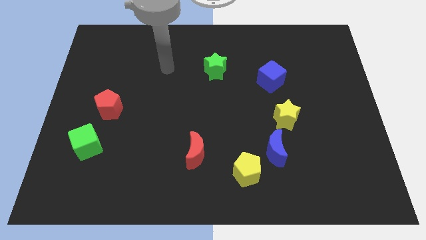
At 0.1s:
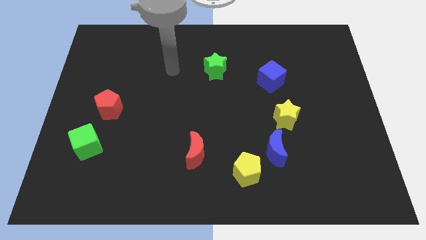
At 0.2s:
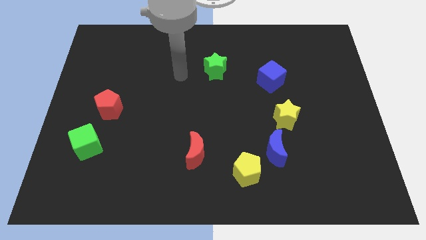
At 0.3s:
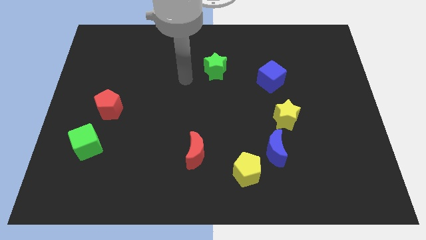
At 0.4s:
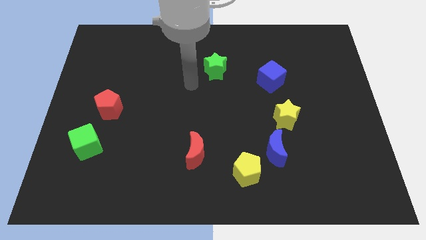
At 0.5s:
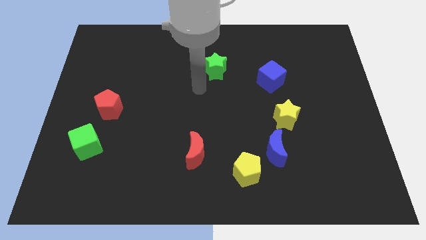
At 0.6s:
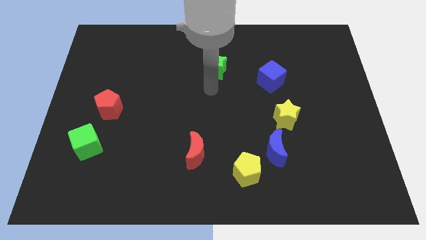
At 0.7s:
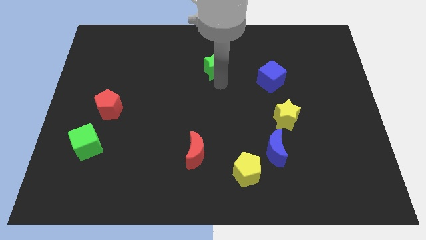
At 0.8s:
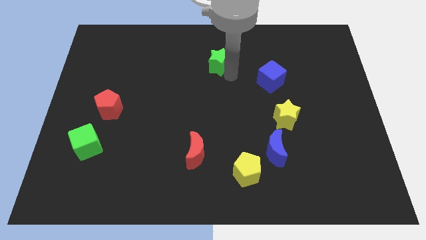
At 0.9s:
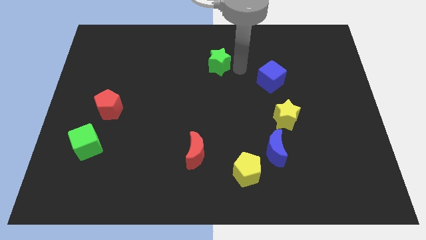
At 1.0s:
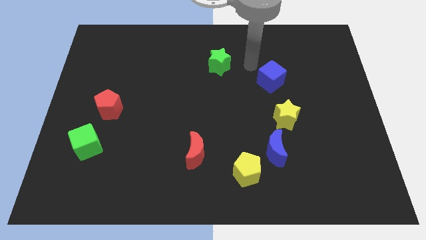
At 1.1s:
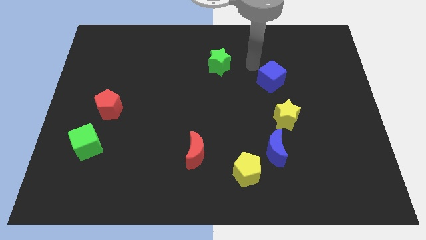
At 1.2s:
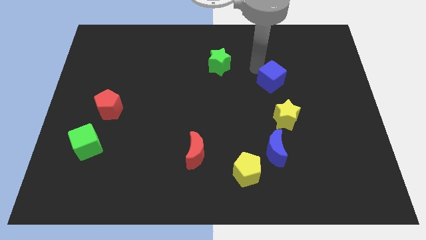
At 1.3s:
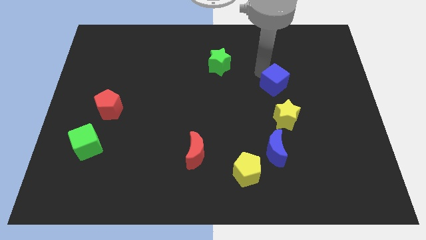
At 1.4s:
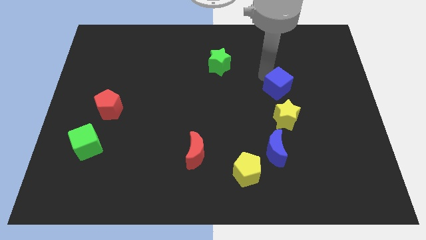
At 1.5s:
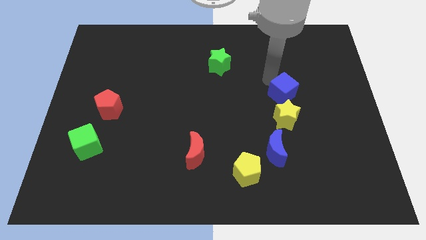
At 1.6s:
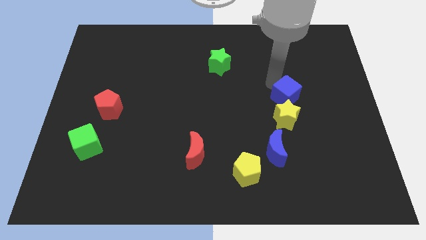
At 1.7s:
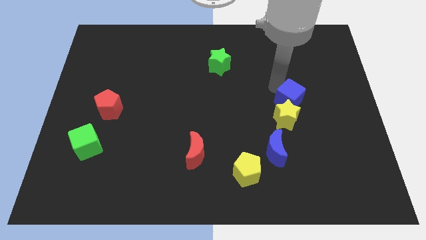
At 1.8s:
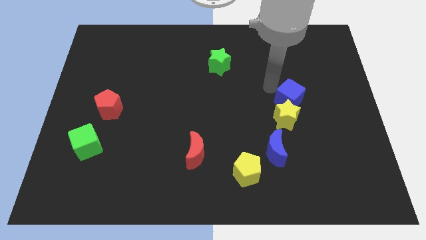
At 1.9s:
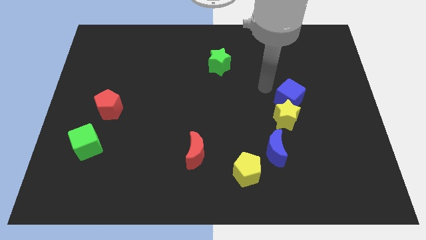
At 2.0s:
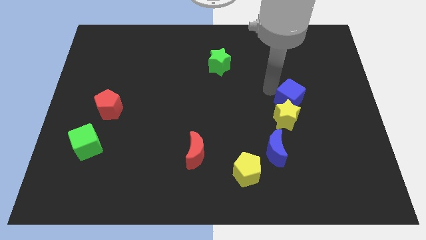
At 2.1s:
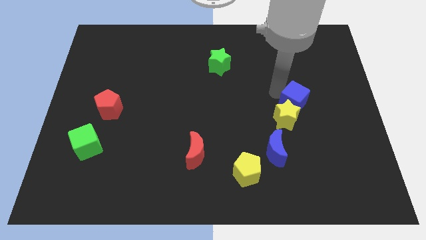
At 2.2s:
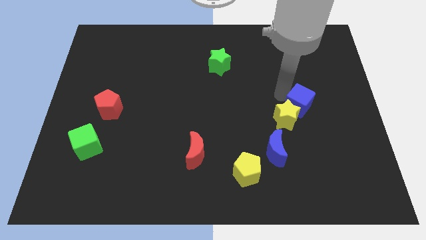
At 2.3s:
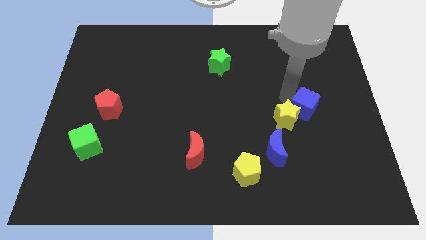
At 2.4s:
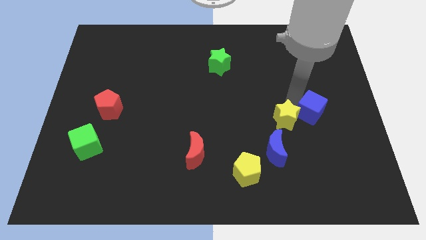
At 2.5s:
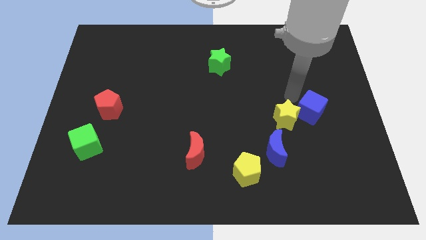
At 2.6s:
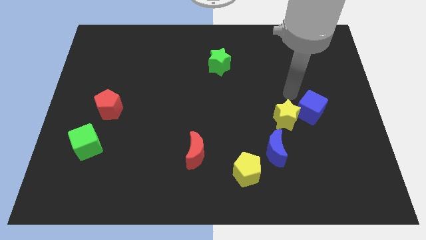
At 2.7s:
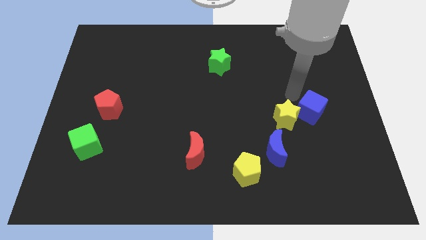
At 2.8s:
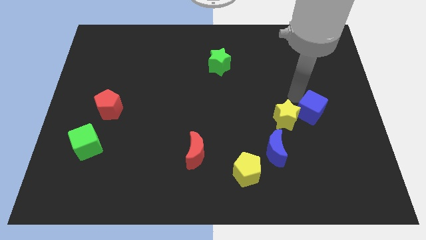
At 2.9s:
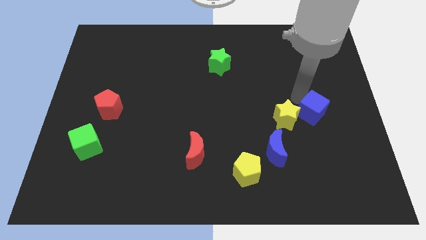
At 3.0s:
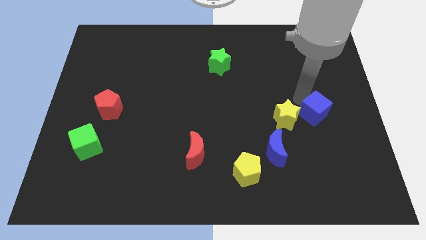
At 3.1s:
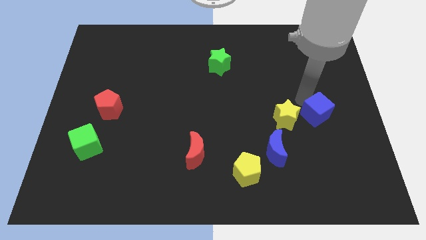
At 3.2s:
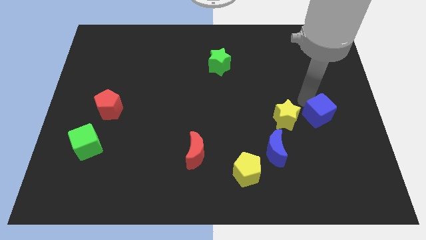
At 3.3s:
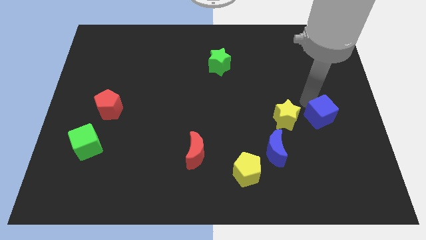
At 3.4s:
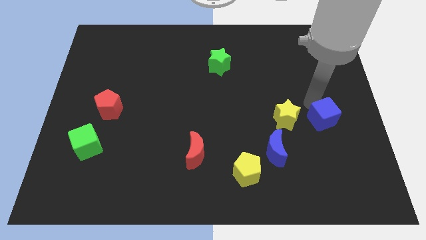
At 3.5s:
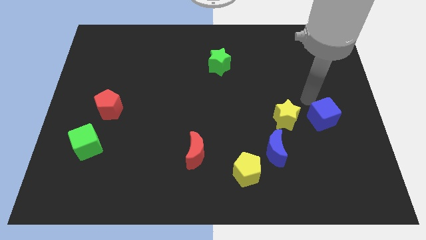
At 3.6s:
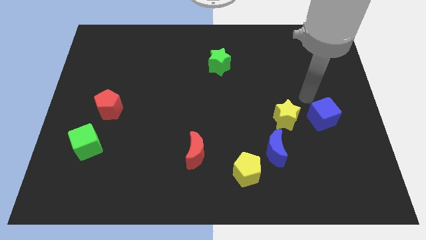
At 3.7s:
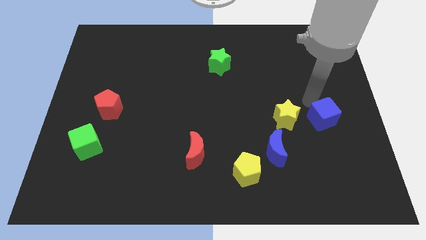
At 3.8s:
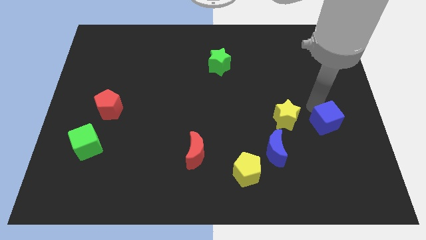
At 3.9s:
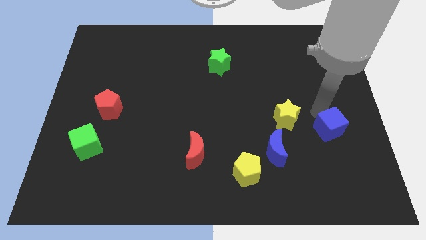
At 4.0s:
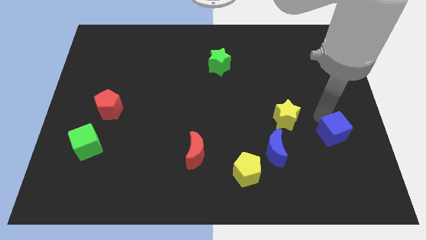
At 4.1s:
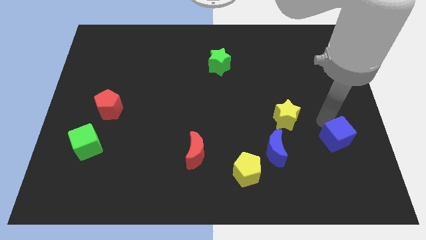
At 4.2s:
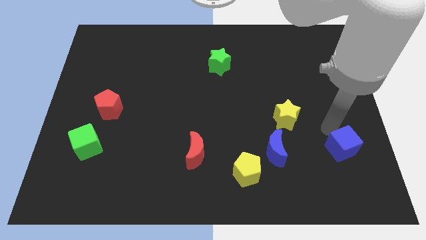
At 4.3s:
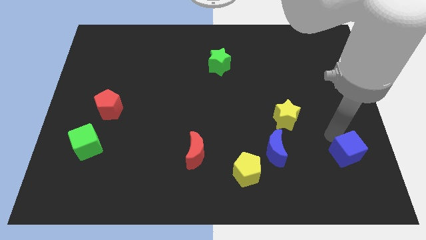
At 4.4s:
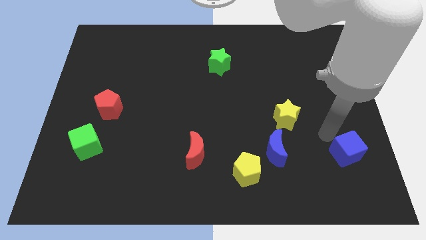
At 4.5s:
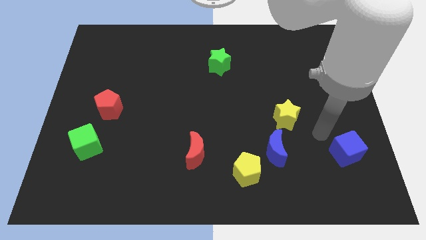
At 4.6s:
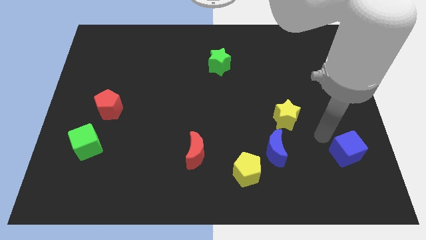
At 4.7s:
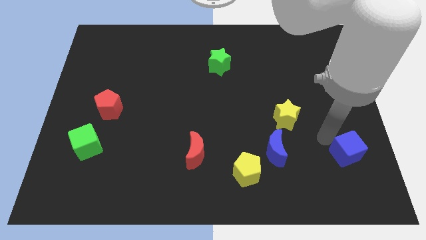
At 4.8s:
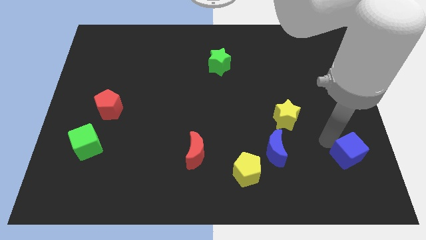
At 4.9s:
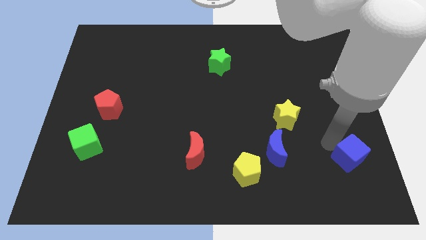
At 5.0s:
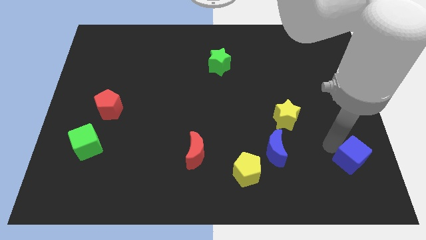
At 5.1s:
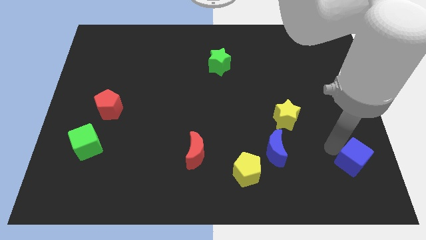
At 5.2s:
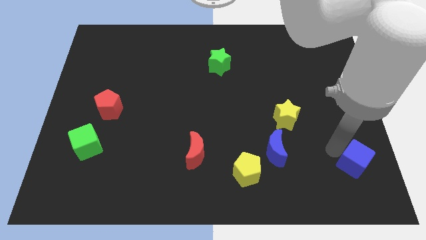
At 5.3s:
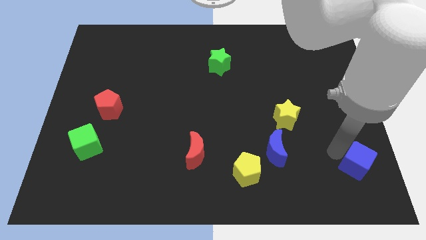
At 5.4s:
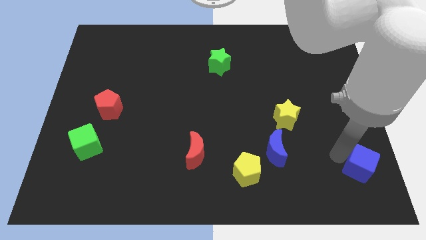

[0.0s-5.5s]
slide the blue cube to the bottom right of the board

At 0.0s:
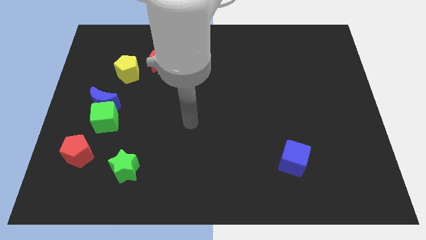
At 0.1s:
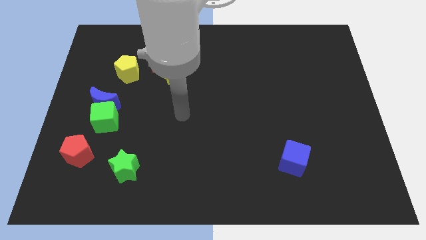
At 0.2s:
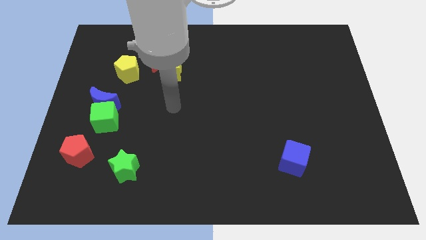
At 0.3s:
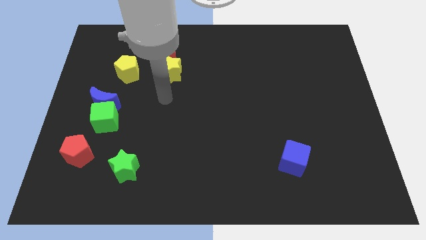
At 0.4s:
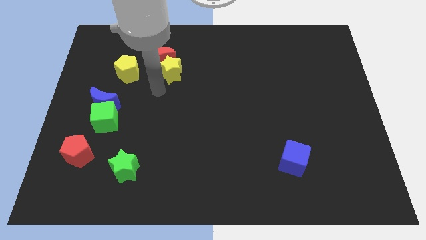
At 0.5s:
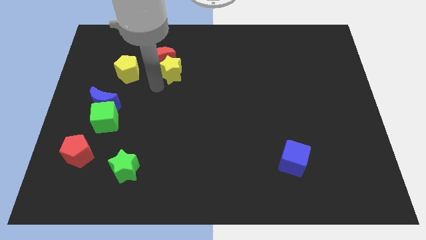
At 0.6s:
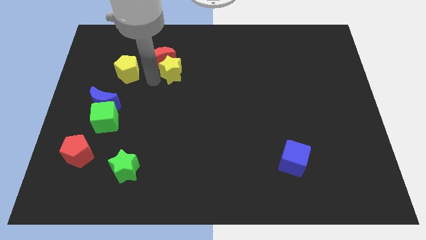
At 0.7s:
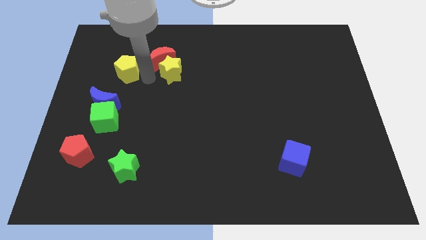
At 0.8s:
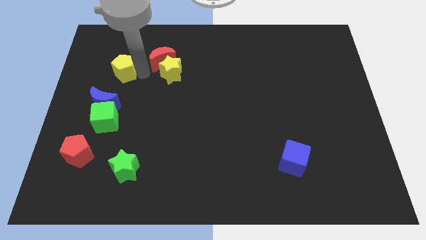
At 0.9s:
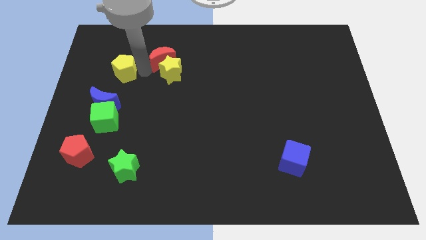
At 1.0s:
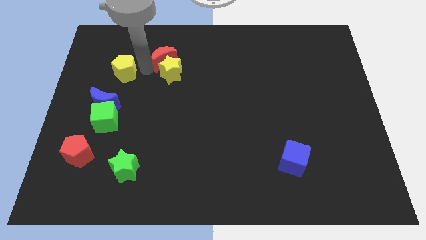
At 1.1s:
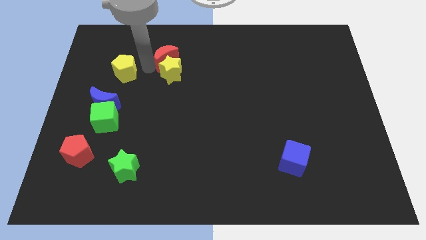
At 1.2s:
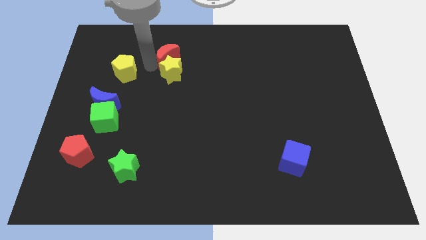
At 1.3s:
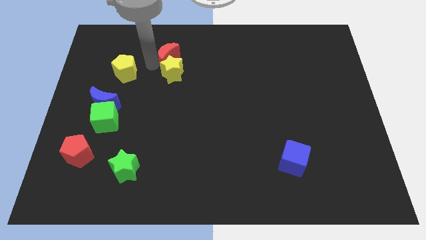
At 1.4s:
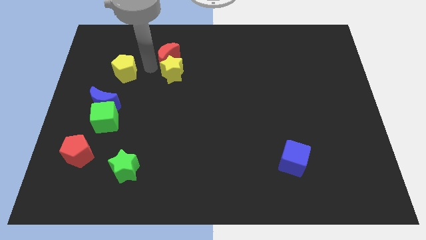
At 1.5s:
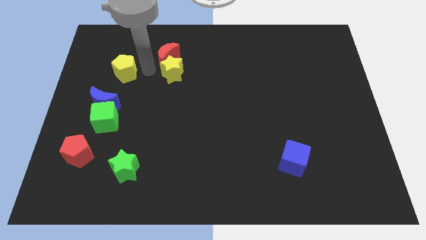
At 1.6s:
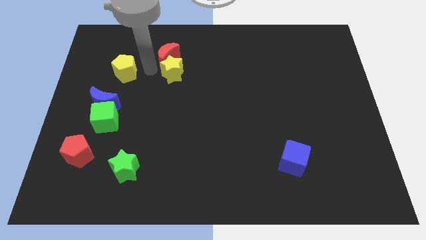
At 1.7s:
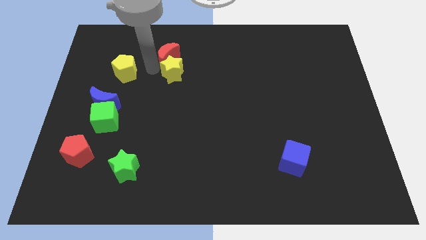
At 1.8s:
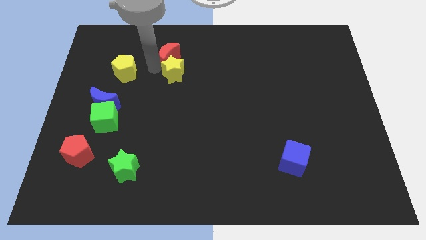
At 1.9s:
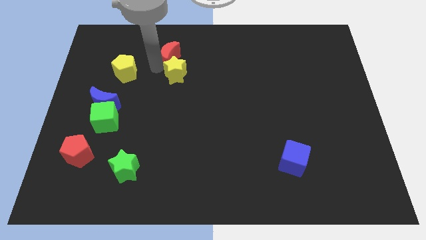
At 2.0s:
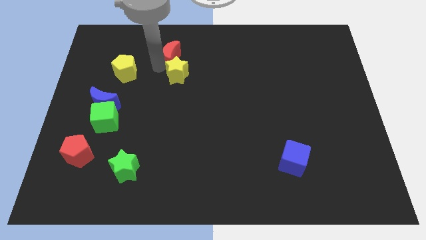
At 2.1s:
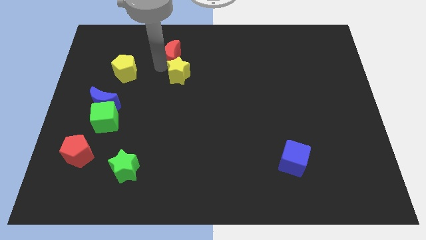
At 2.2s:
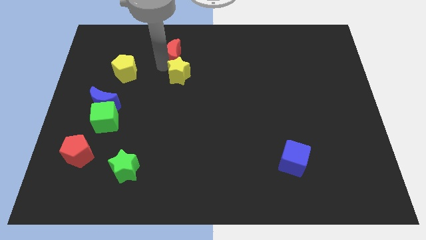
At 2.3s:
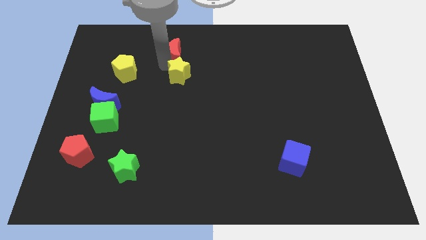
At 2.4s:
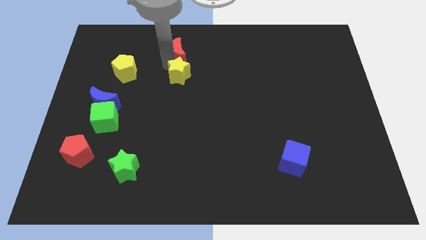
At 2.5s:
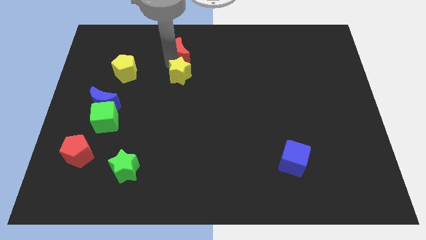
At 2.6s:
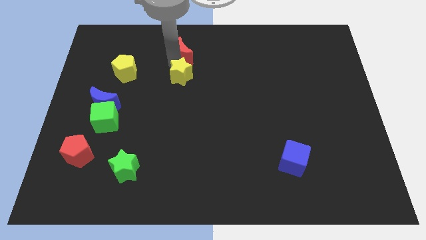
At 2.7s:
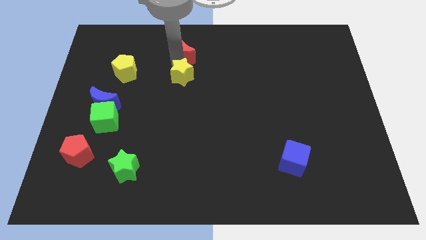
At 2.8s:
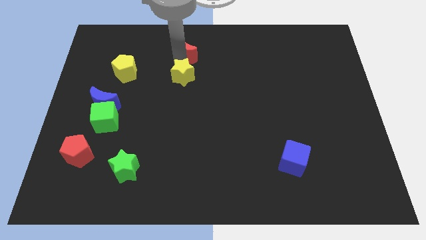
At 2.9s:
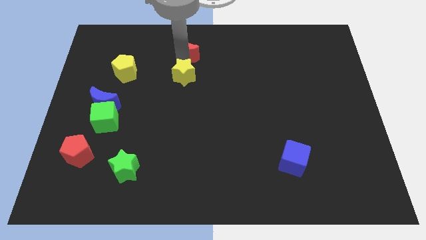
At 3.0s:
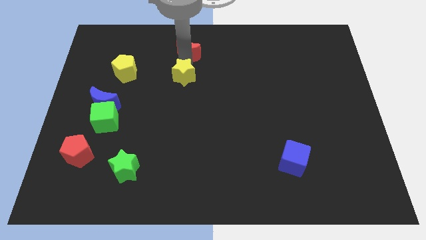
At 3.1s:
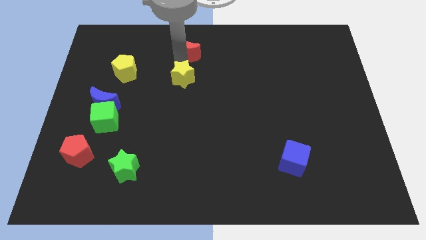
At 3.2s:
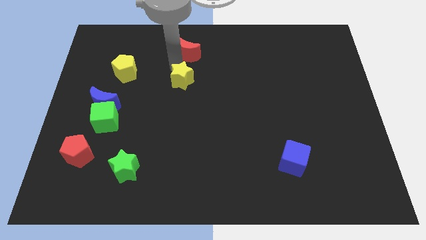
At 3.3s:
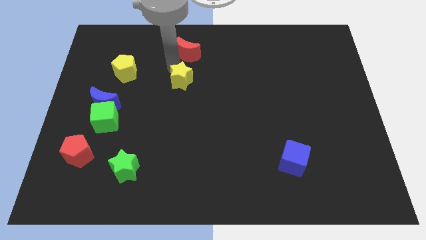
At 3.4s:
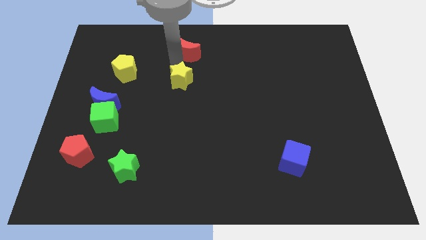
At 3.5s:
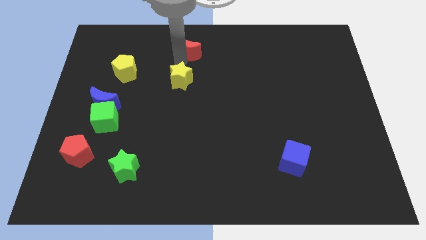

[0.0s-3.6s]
push the red moon to the top side
